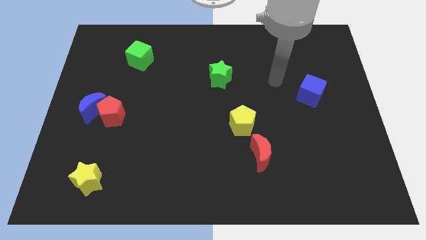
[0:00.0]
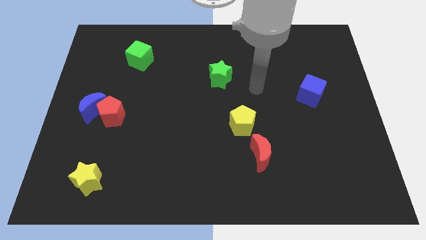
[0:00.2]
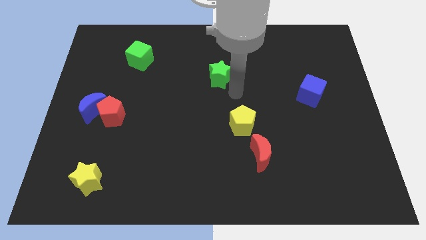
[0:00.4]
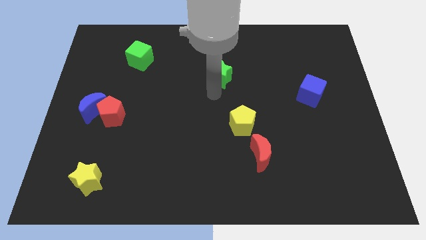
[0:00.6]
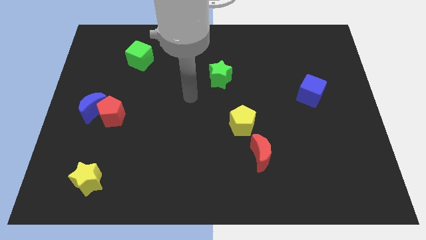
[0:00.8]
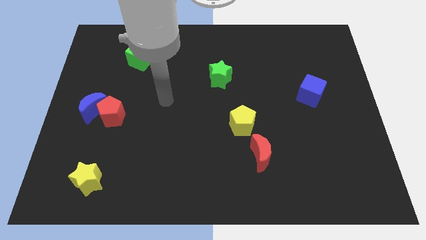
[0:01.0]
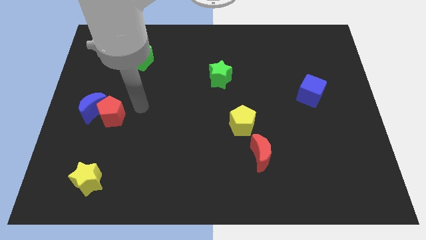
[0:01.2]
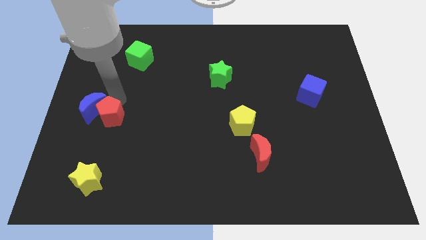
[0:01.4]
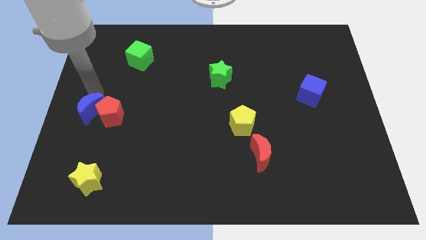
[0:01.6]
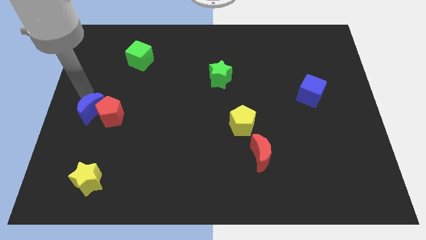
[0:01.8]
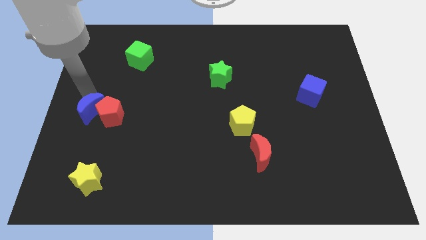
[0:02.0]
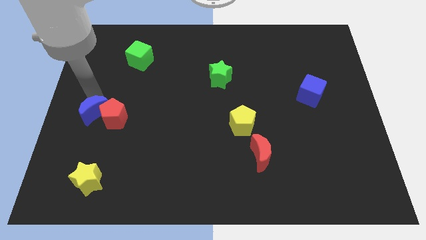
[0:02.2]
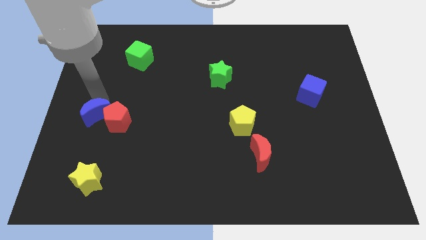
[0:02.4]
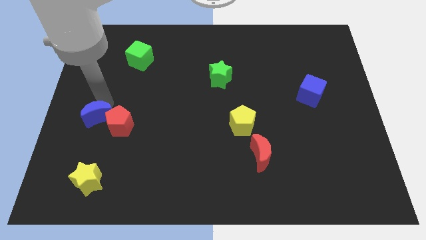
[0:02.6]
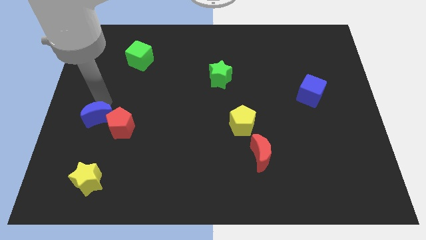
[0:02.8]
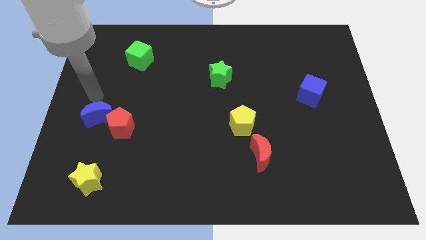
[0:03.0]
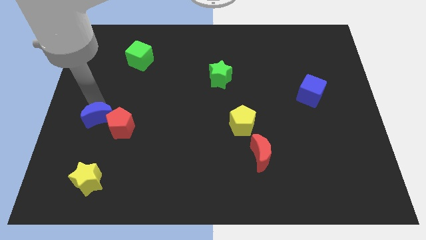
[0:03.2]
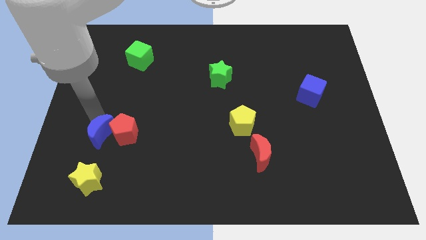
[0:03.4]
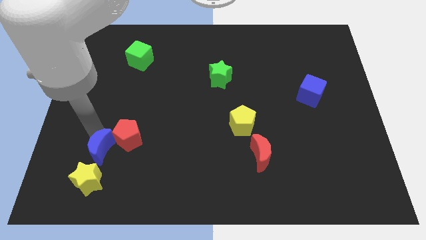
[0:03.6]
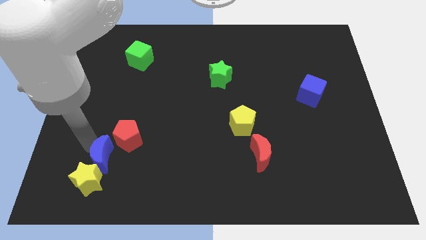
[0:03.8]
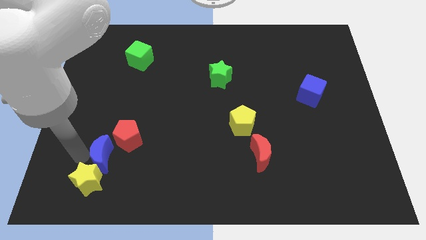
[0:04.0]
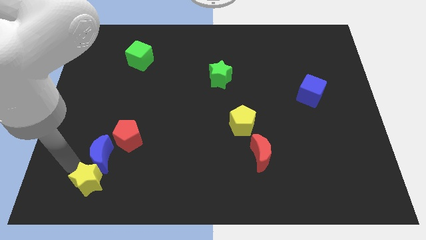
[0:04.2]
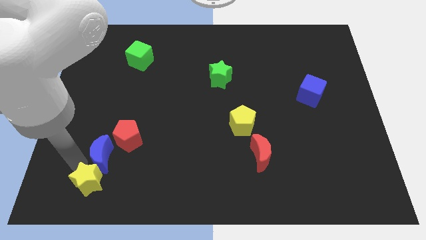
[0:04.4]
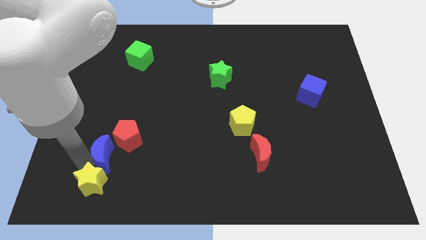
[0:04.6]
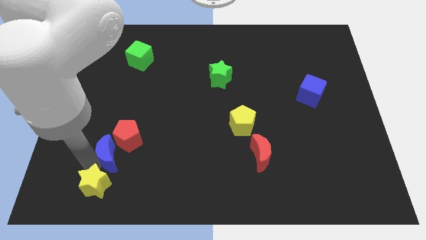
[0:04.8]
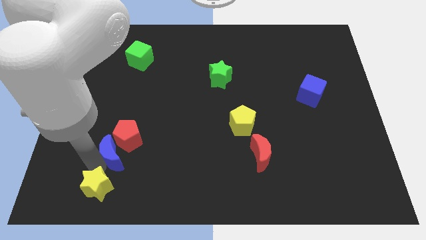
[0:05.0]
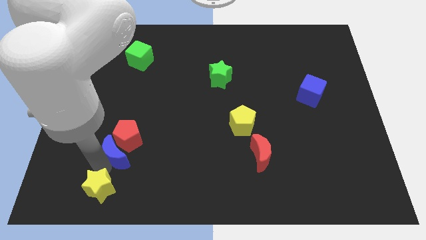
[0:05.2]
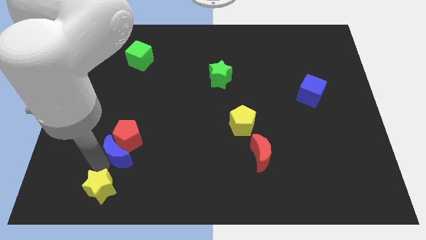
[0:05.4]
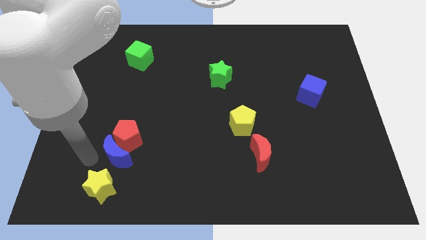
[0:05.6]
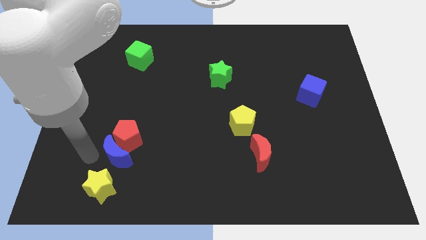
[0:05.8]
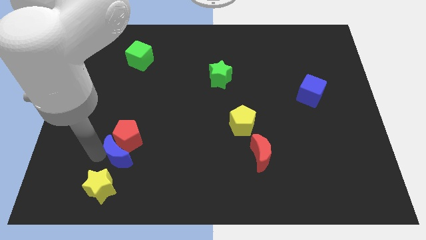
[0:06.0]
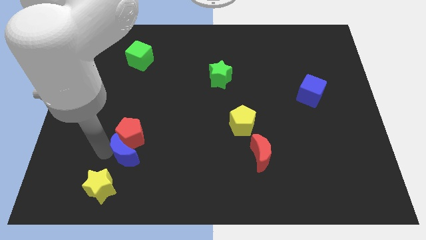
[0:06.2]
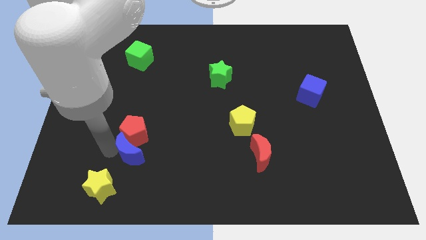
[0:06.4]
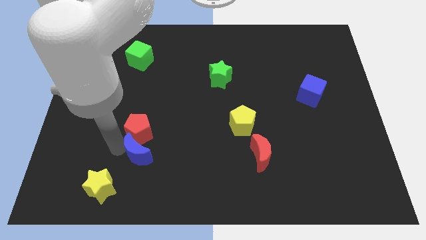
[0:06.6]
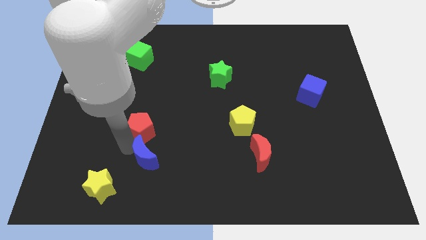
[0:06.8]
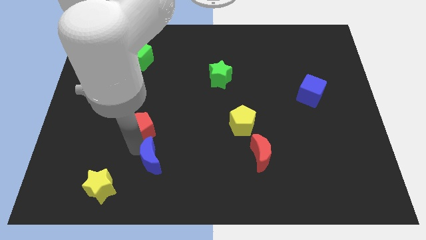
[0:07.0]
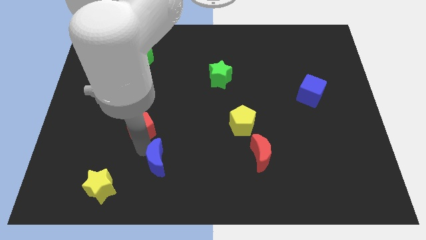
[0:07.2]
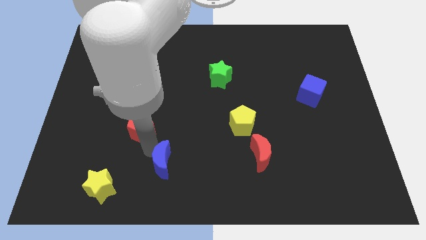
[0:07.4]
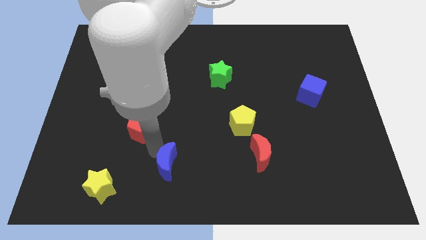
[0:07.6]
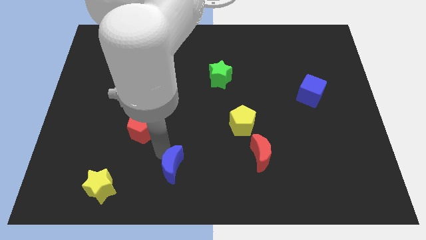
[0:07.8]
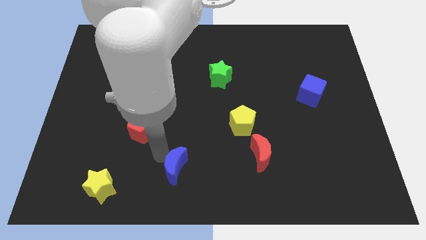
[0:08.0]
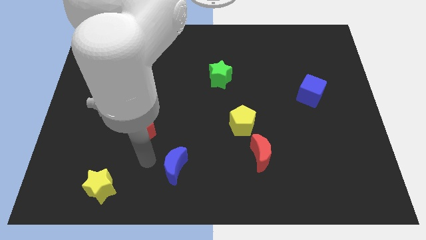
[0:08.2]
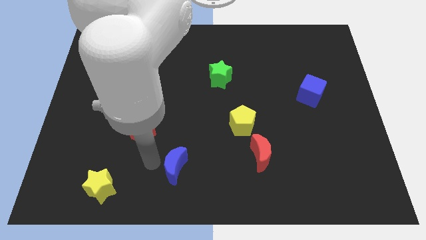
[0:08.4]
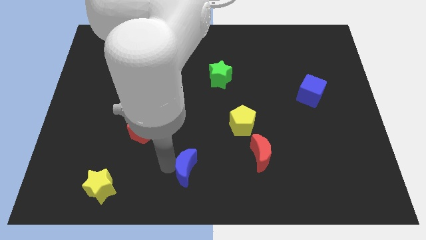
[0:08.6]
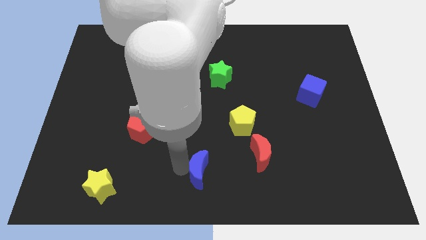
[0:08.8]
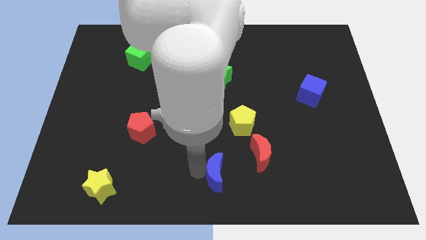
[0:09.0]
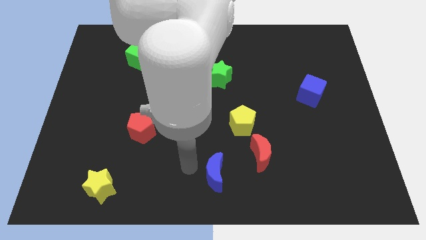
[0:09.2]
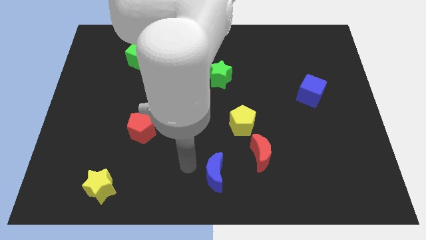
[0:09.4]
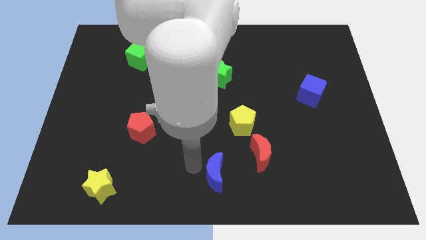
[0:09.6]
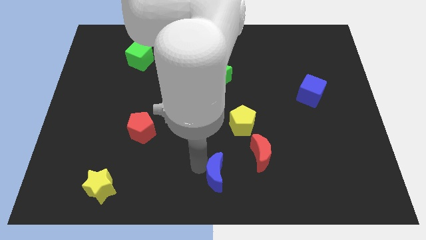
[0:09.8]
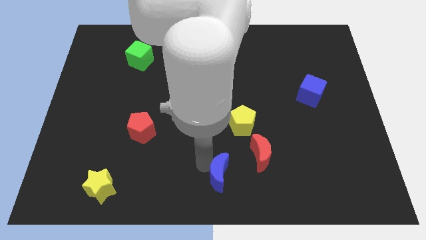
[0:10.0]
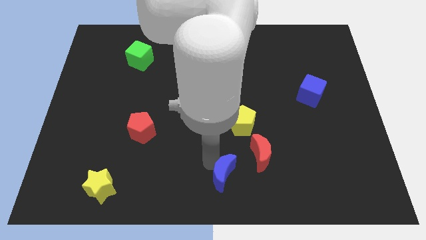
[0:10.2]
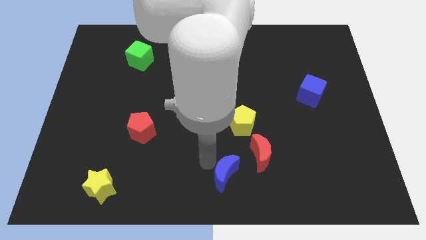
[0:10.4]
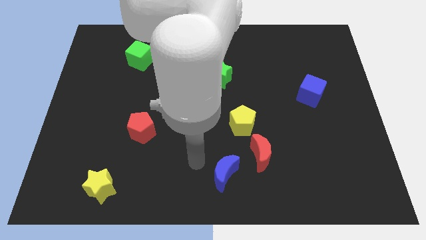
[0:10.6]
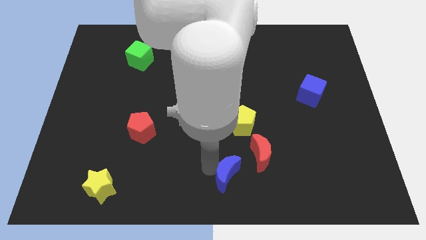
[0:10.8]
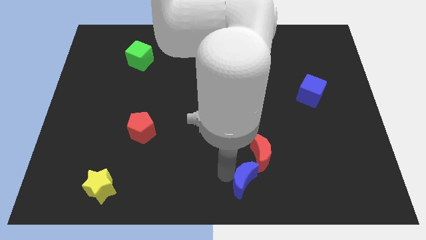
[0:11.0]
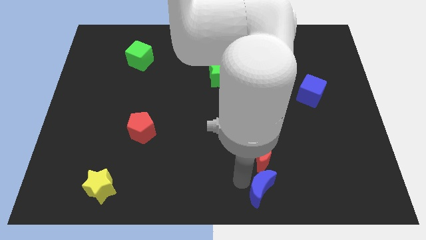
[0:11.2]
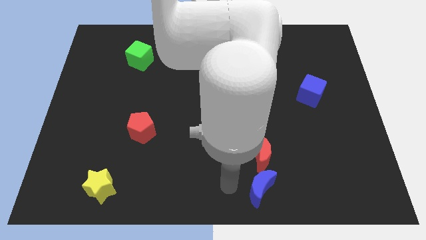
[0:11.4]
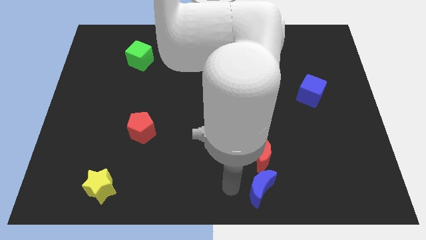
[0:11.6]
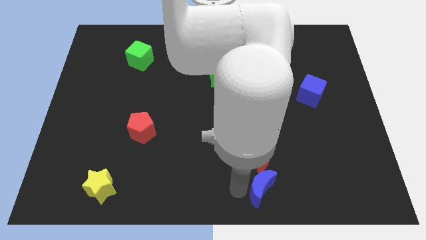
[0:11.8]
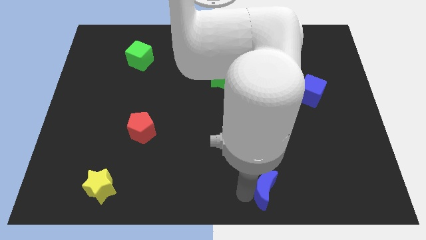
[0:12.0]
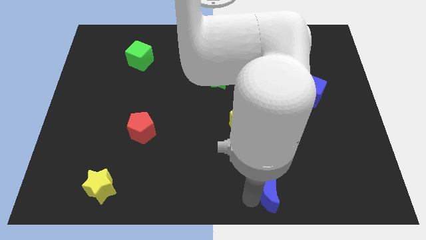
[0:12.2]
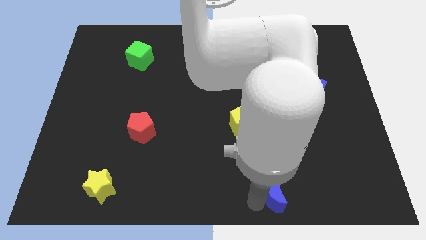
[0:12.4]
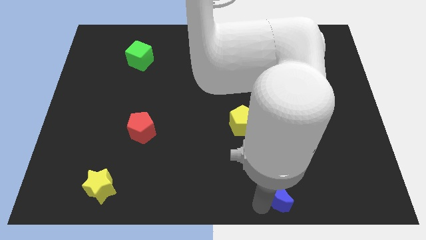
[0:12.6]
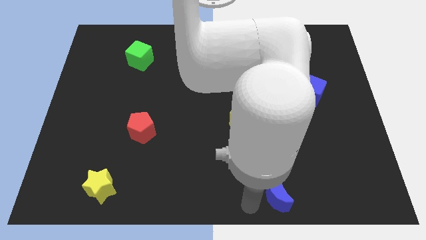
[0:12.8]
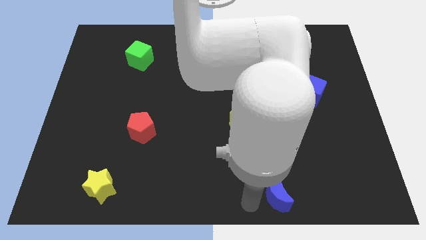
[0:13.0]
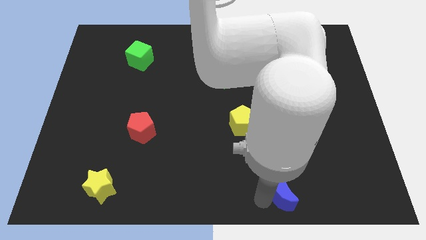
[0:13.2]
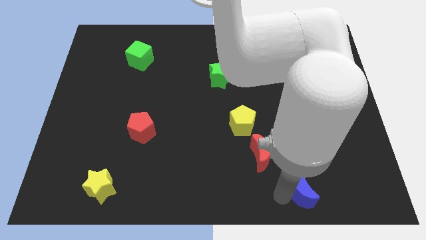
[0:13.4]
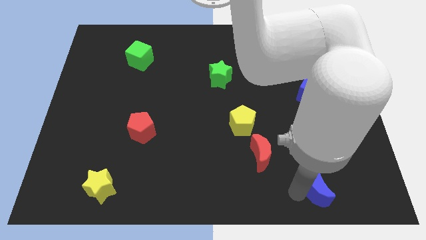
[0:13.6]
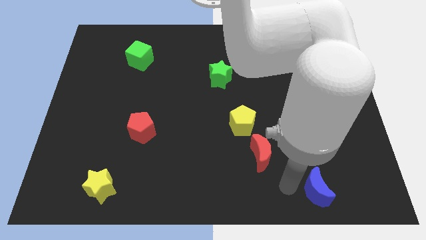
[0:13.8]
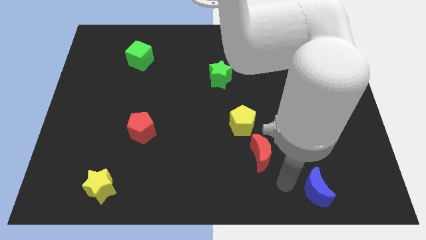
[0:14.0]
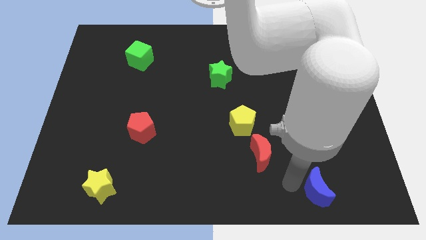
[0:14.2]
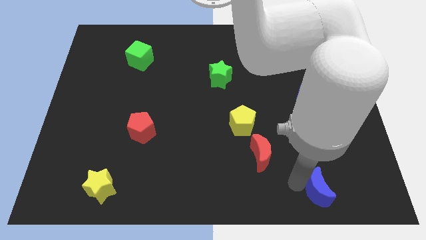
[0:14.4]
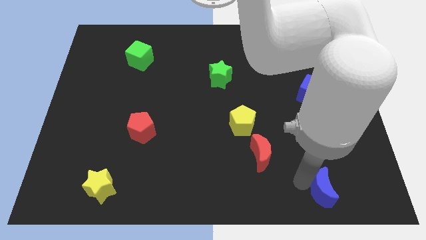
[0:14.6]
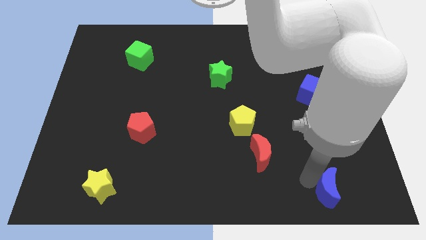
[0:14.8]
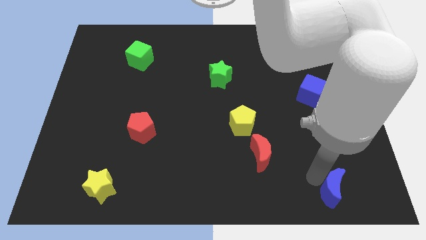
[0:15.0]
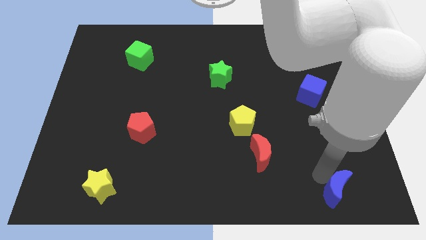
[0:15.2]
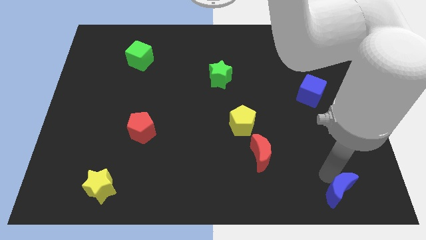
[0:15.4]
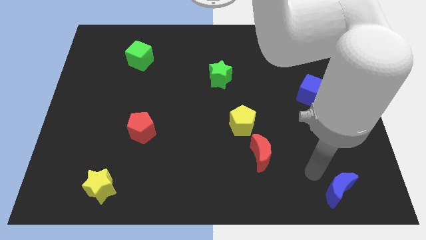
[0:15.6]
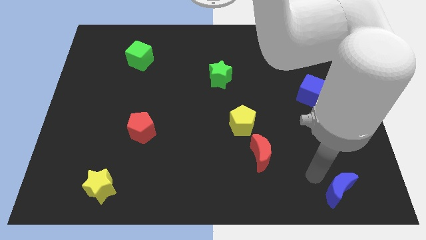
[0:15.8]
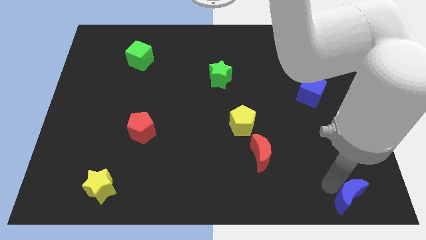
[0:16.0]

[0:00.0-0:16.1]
slide the blue moon to the lower right corner
